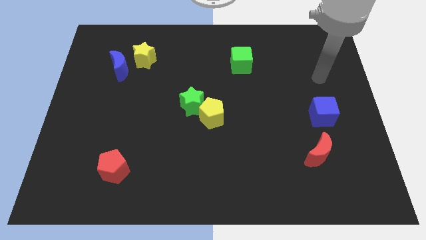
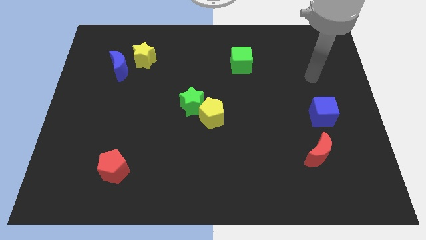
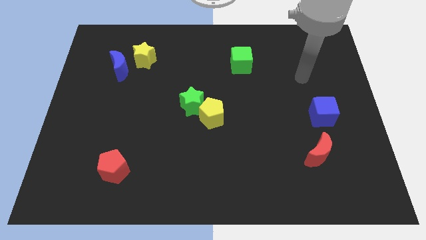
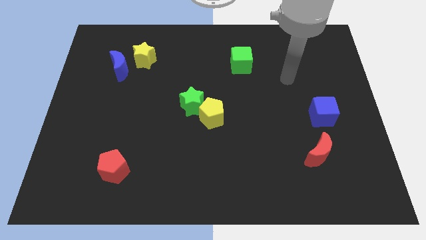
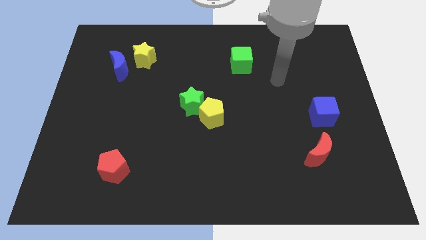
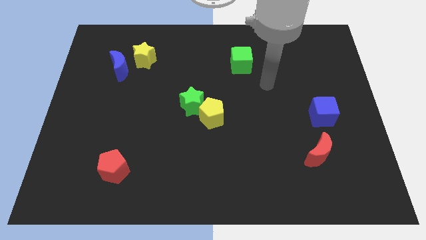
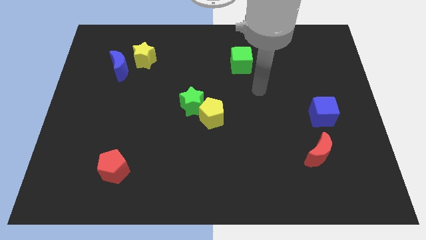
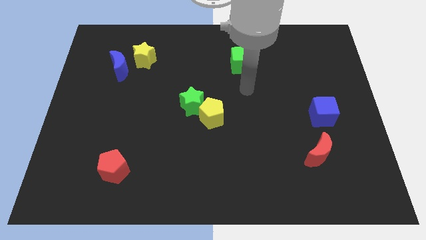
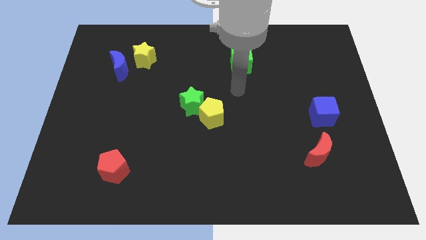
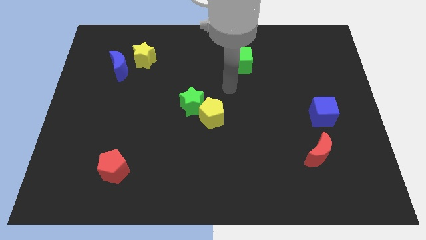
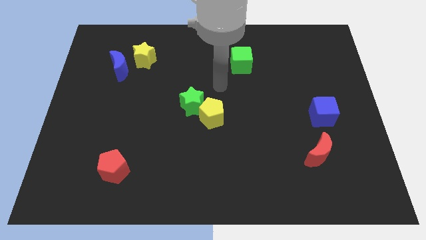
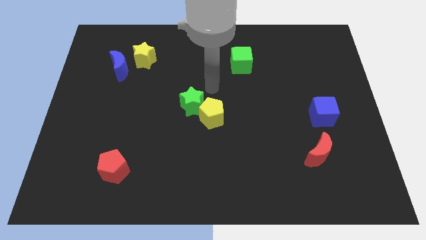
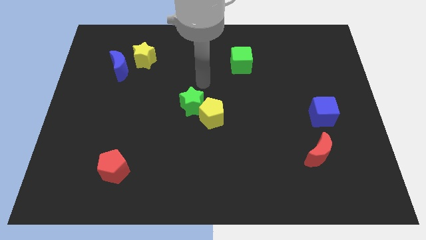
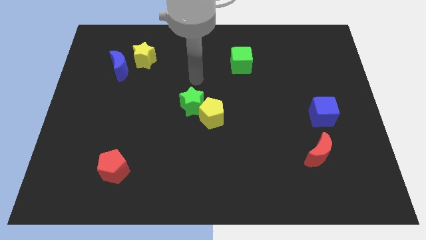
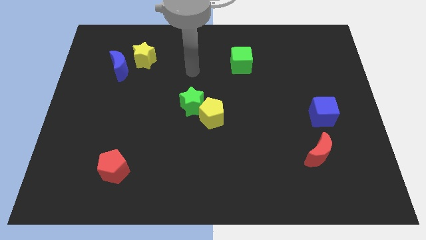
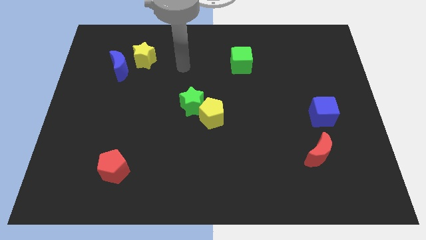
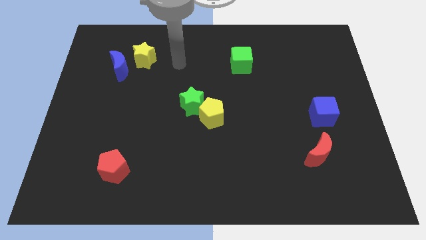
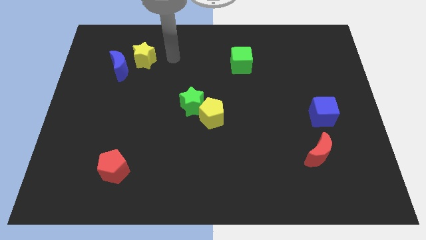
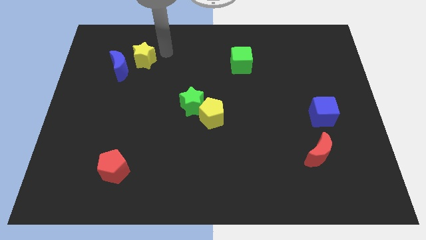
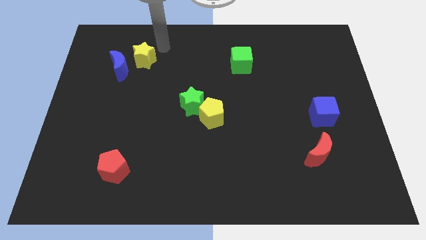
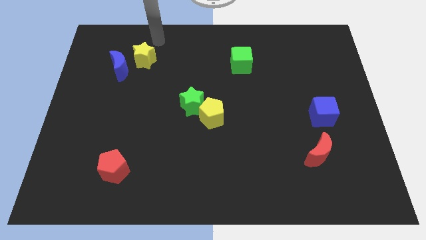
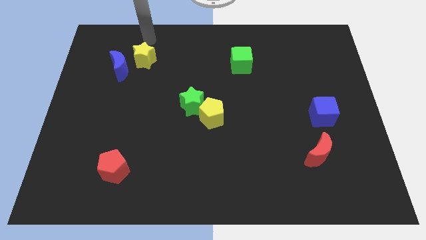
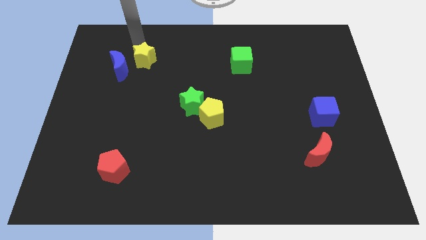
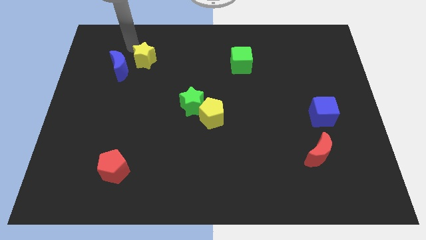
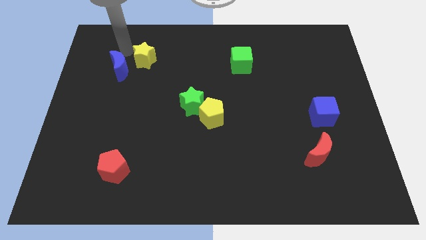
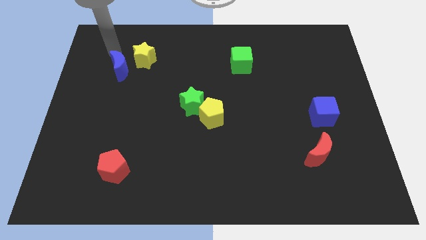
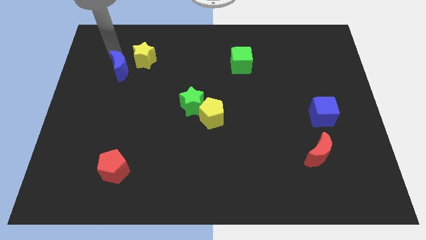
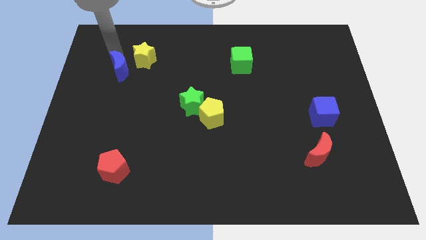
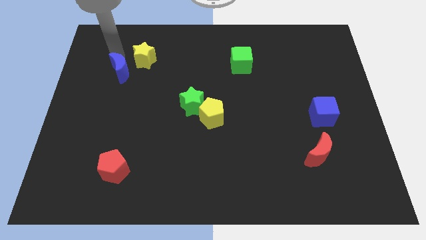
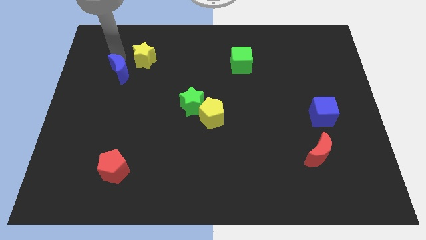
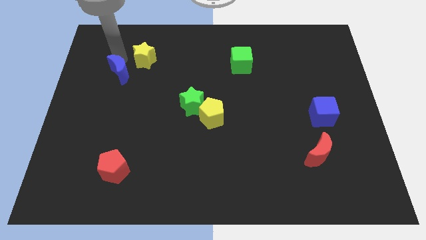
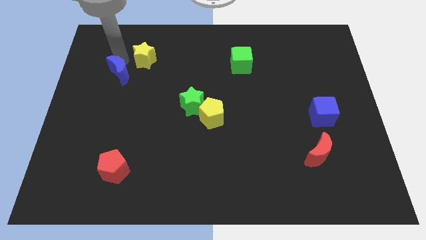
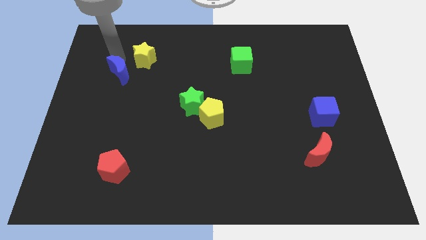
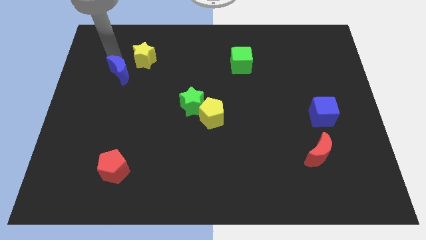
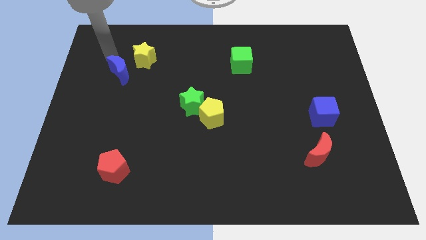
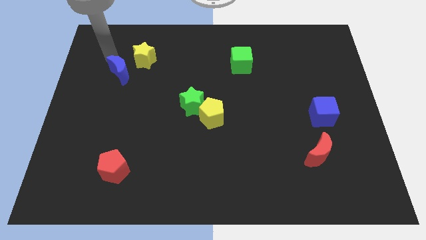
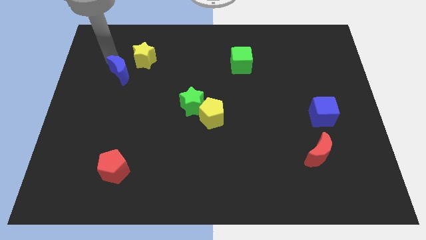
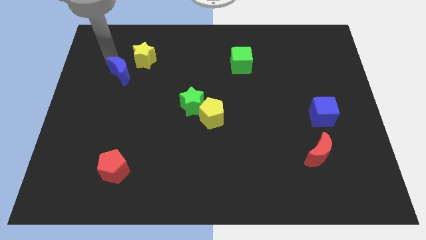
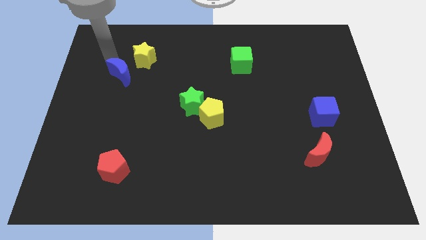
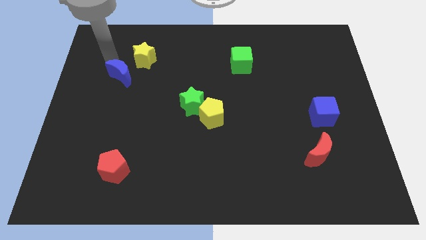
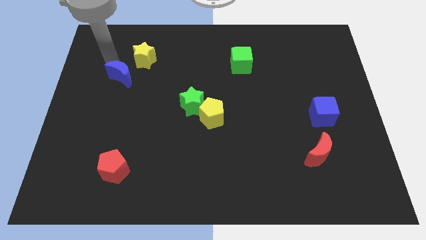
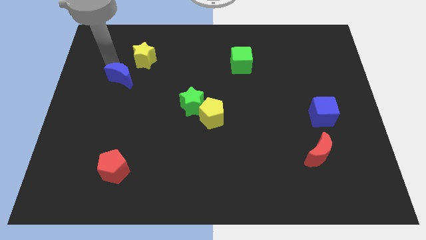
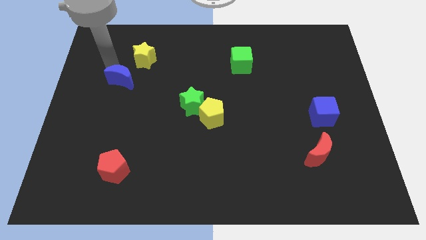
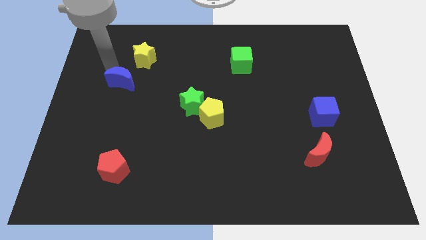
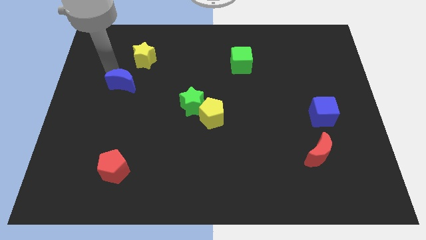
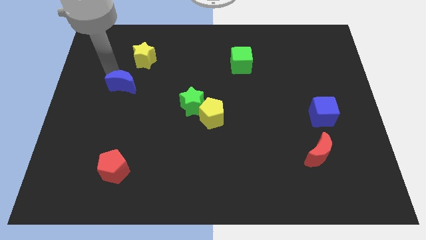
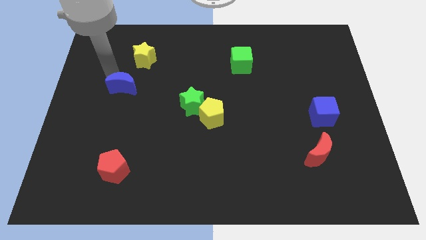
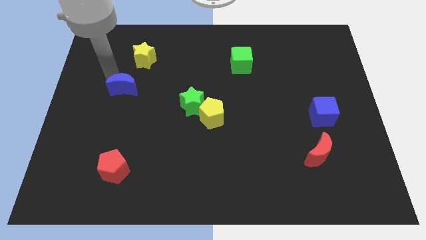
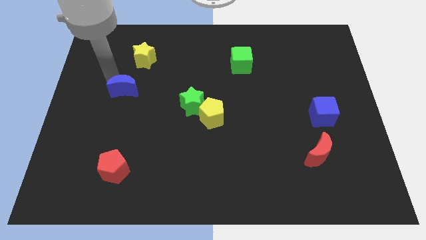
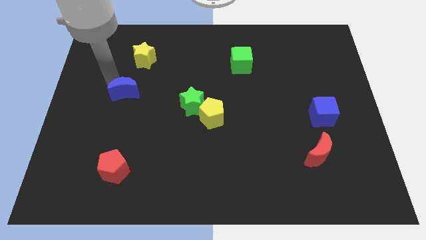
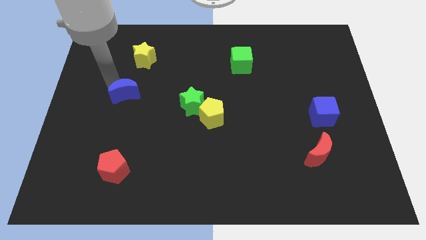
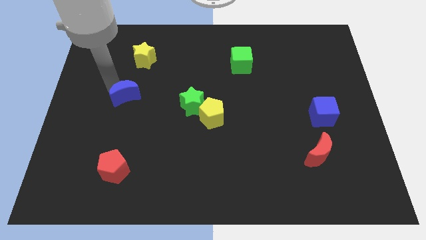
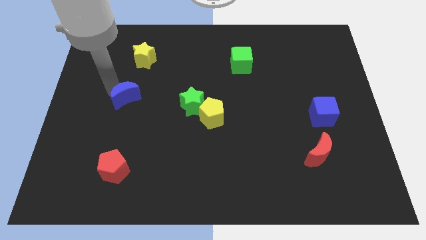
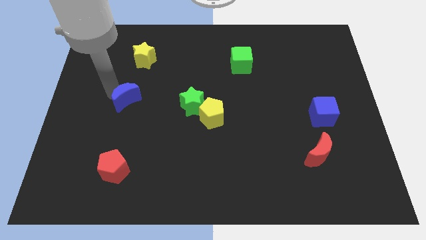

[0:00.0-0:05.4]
move the blue moon left of the green star

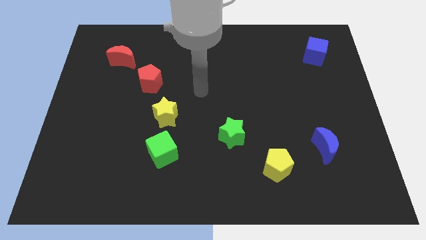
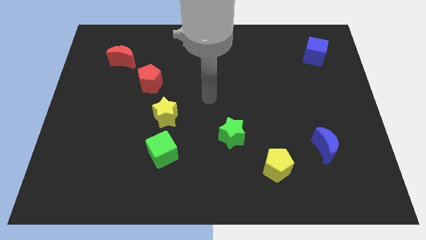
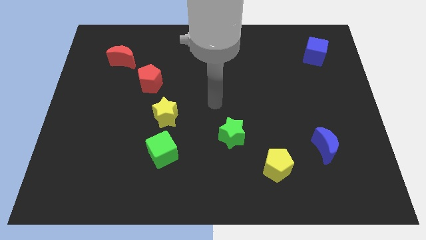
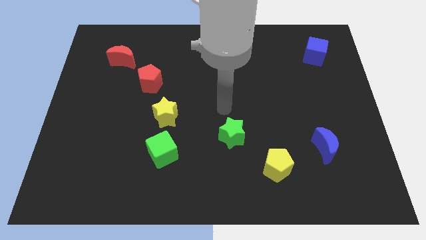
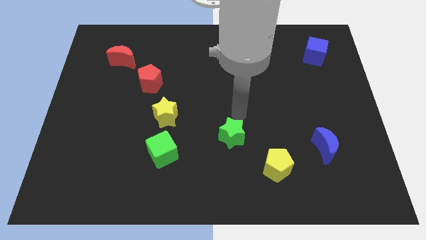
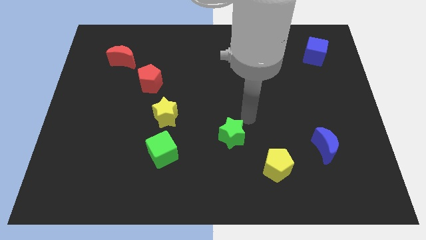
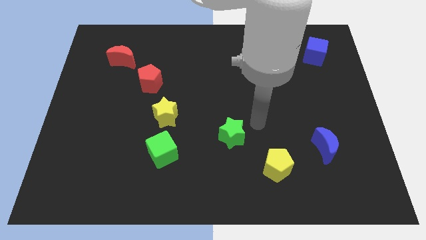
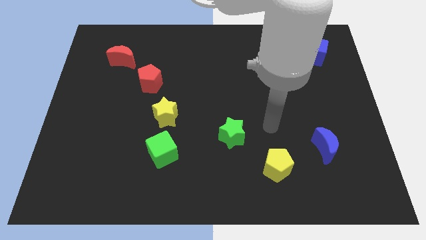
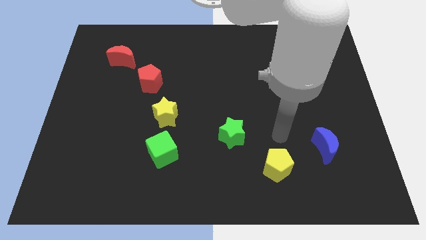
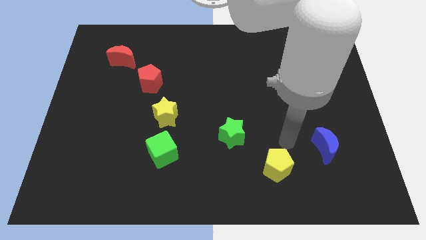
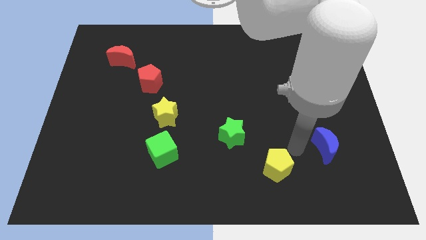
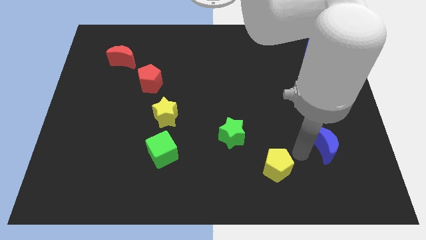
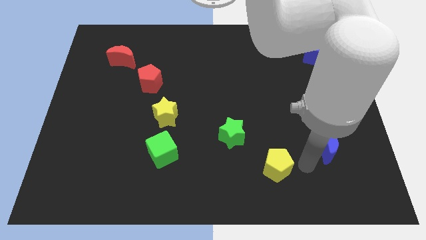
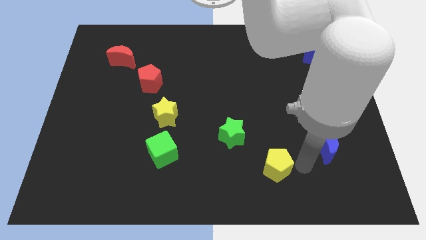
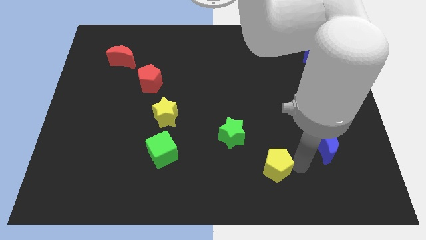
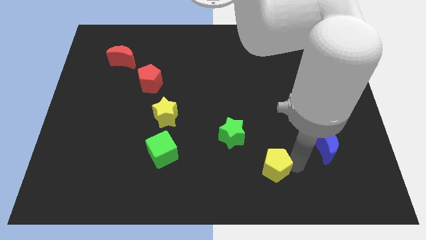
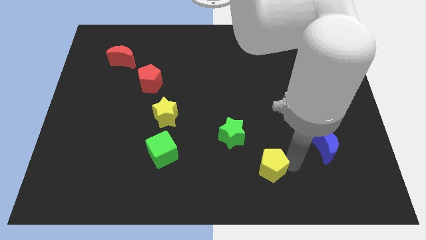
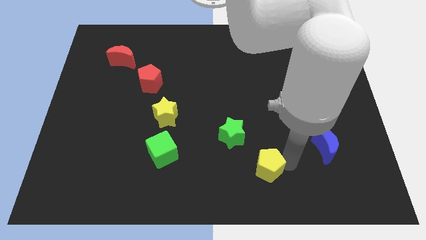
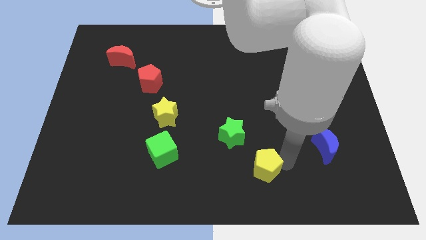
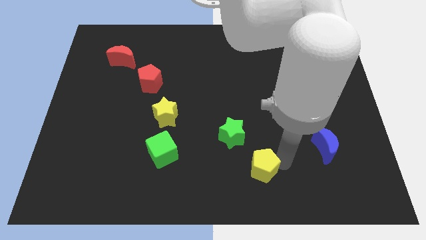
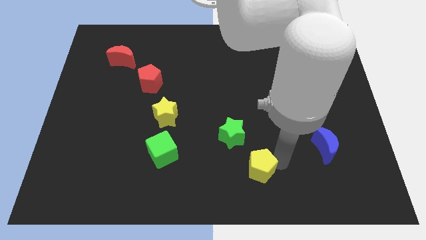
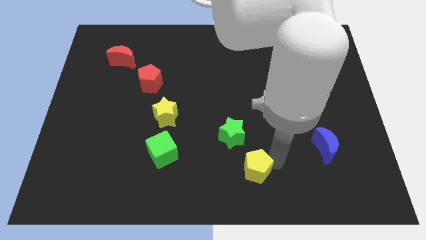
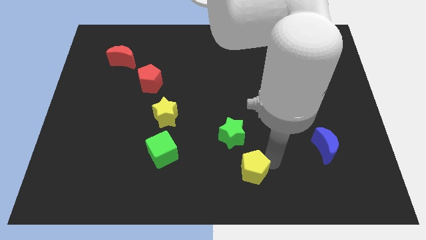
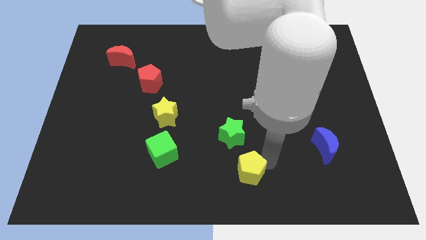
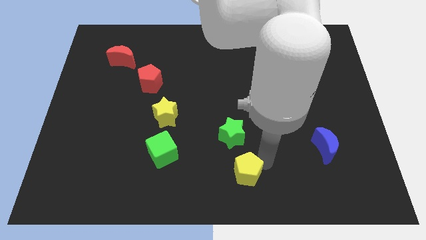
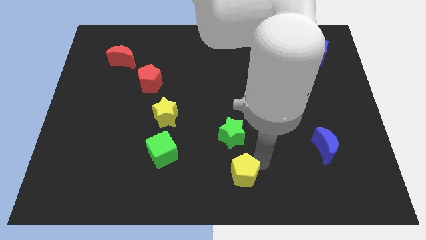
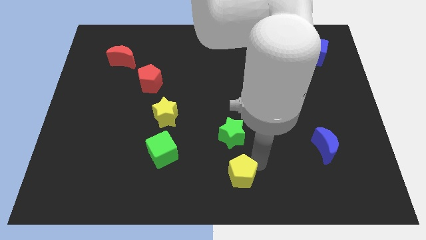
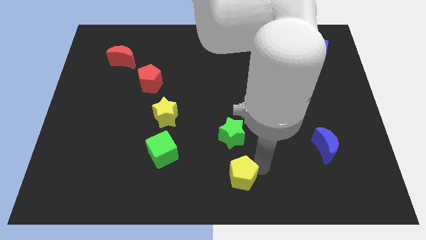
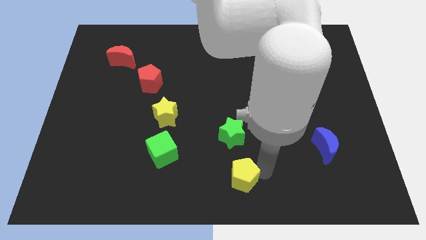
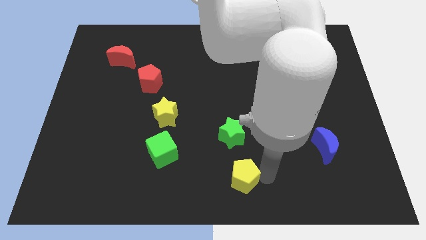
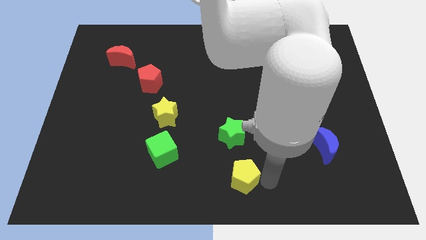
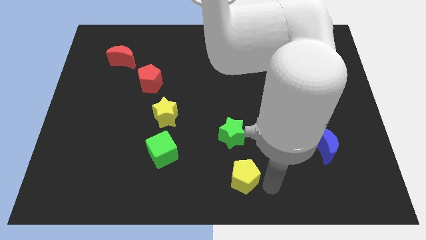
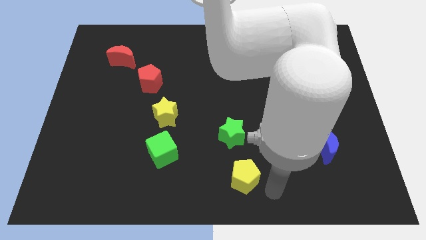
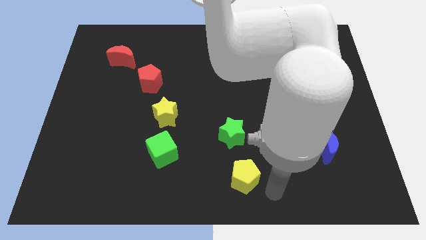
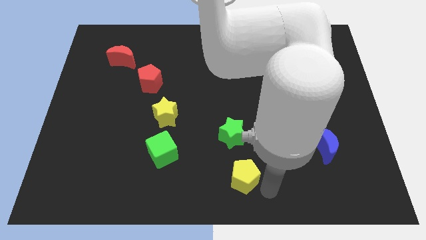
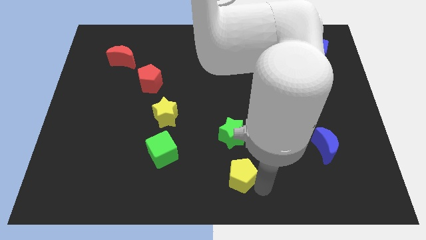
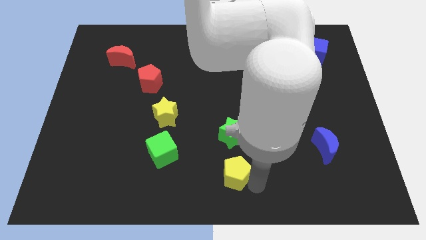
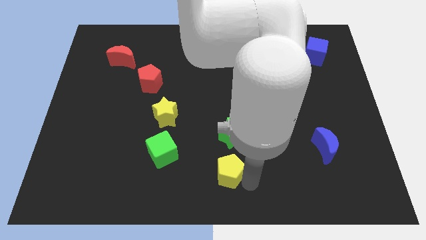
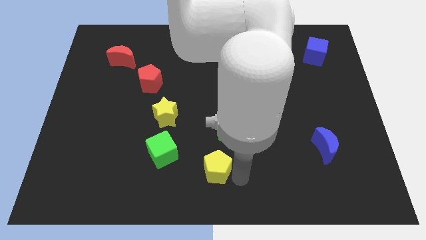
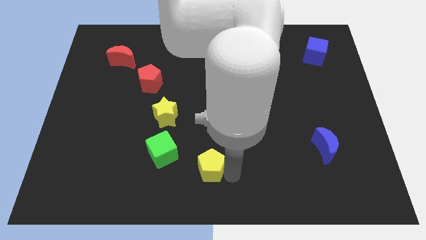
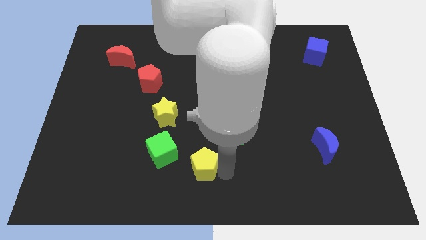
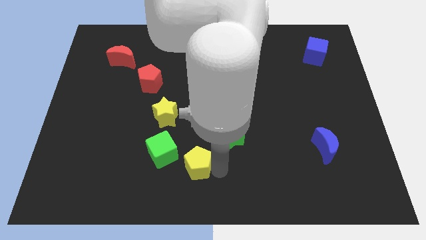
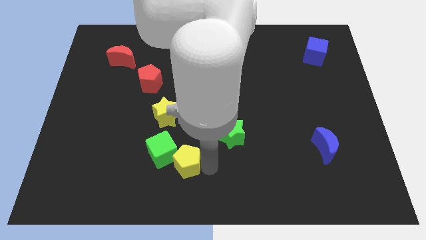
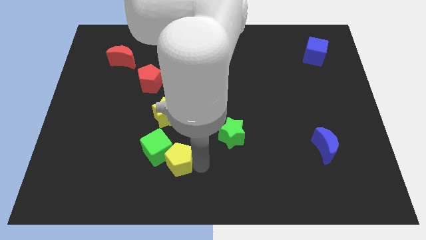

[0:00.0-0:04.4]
move the yellow pentagon to the bottom of the yellow star
